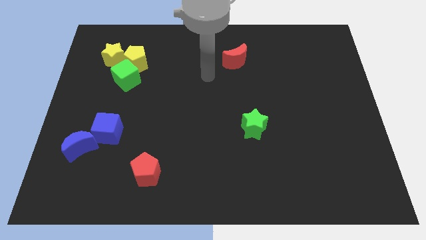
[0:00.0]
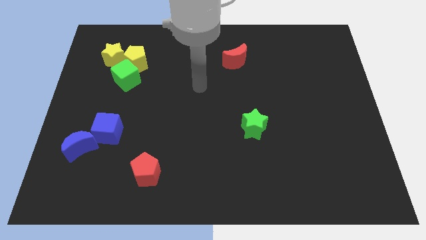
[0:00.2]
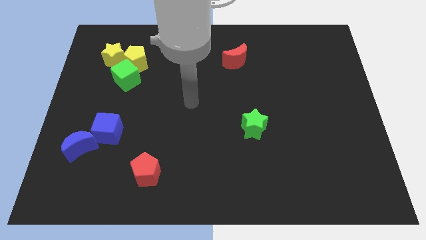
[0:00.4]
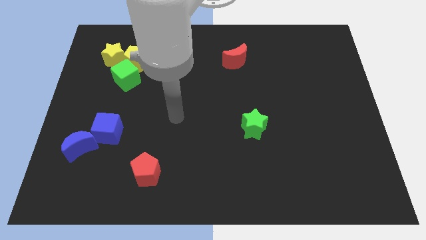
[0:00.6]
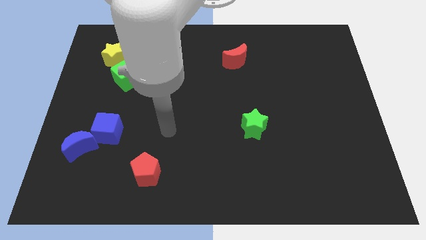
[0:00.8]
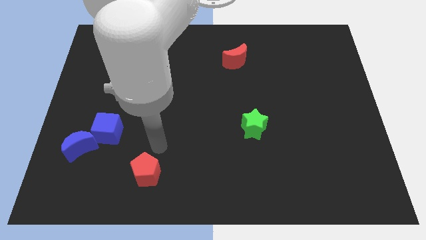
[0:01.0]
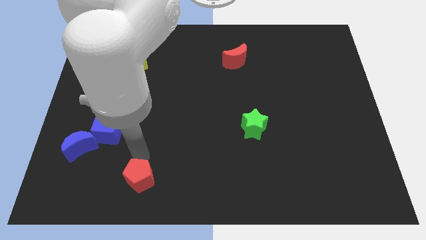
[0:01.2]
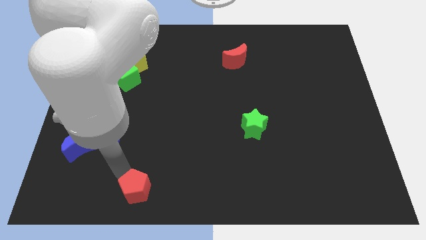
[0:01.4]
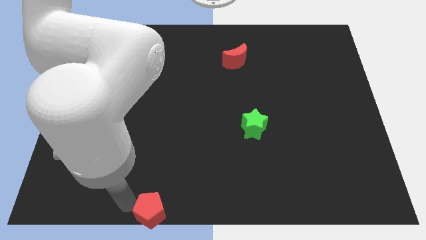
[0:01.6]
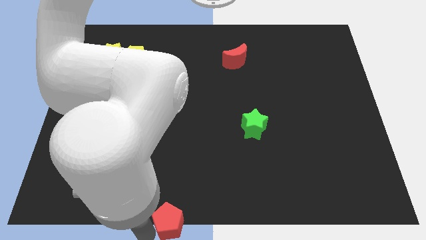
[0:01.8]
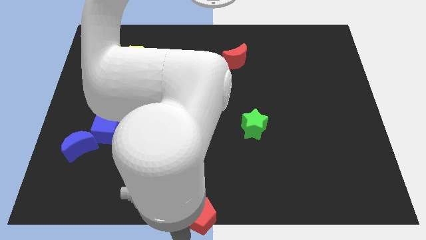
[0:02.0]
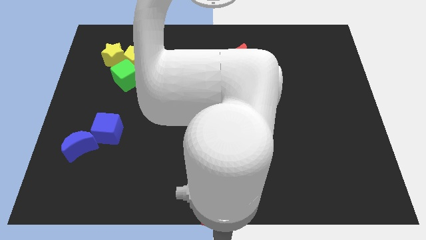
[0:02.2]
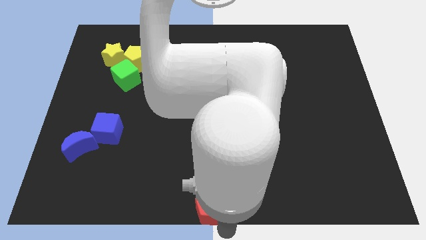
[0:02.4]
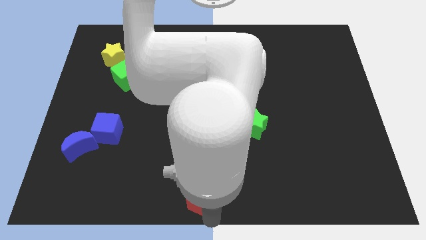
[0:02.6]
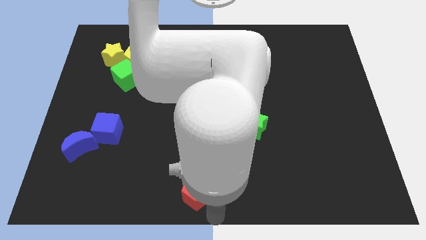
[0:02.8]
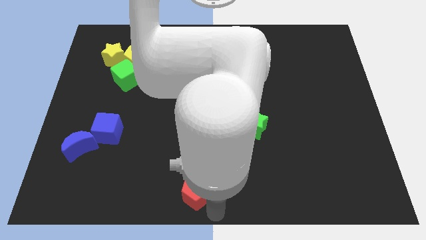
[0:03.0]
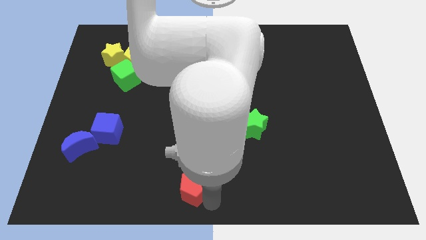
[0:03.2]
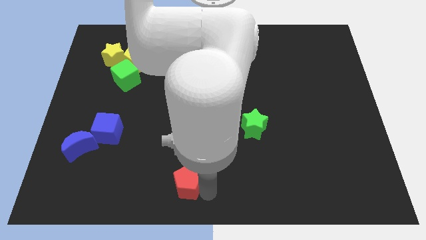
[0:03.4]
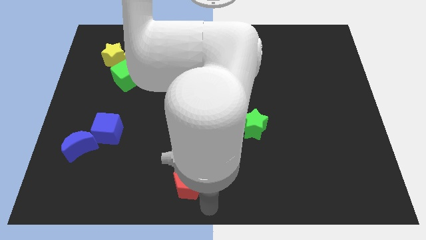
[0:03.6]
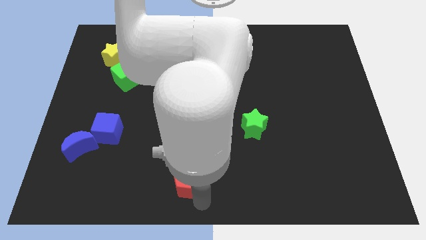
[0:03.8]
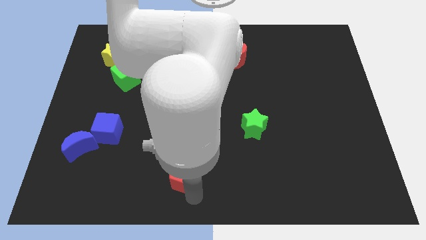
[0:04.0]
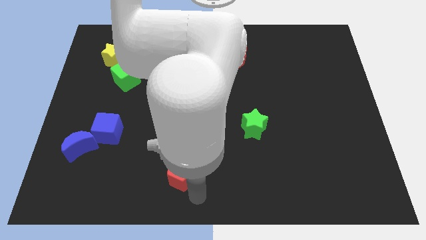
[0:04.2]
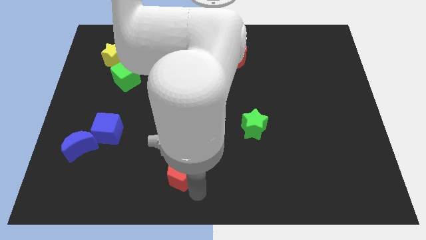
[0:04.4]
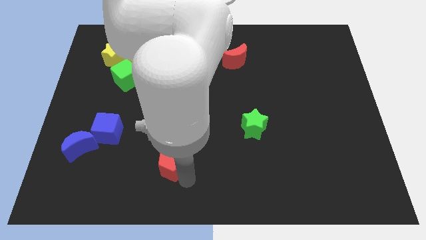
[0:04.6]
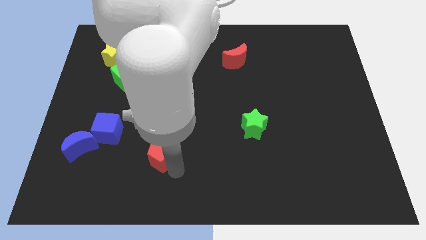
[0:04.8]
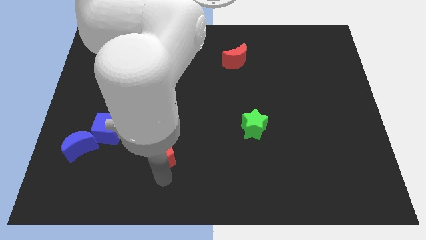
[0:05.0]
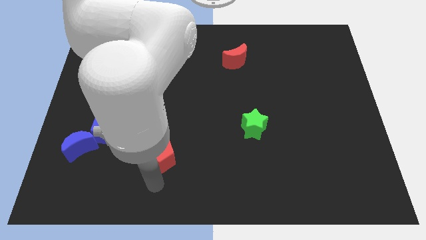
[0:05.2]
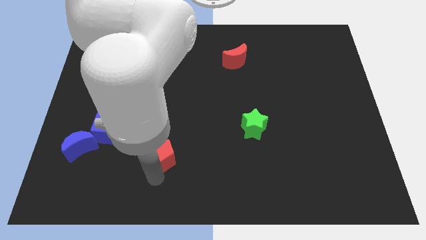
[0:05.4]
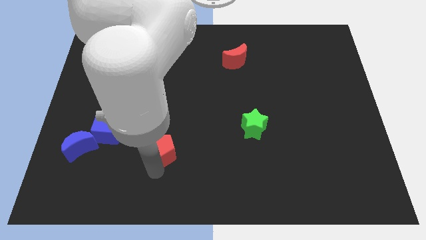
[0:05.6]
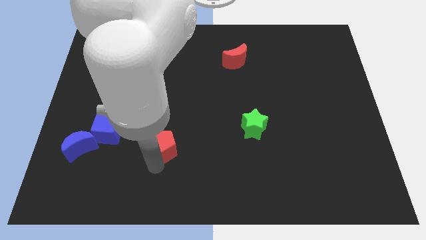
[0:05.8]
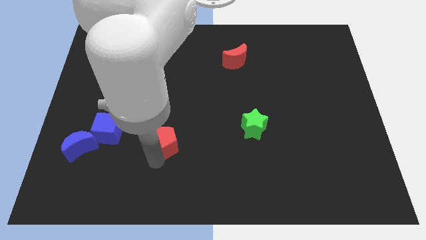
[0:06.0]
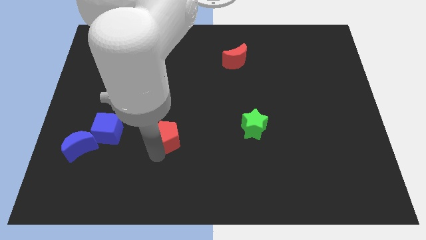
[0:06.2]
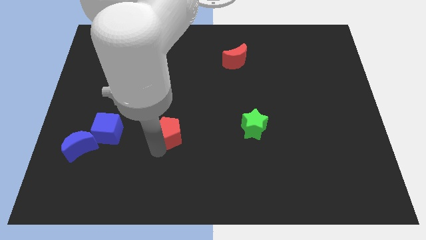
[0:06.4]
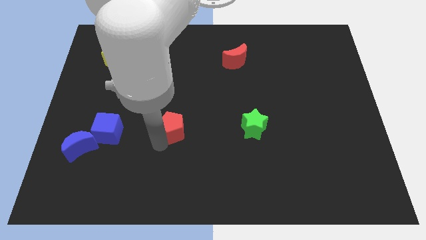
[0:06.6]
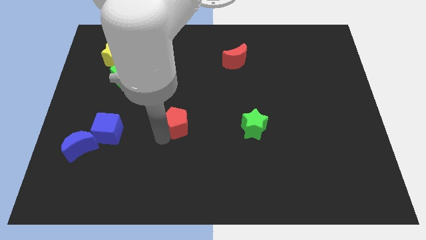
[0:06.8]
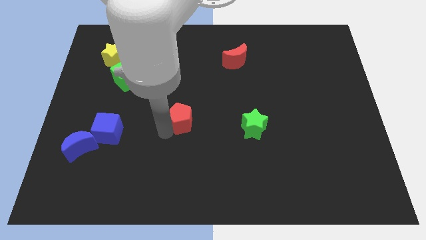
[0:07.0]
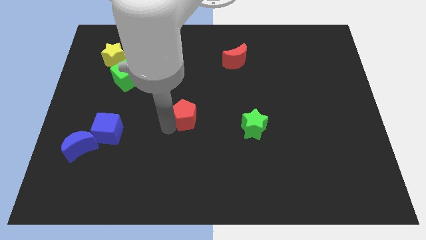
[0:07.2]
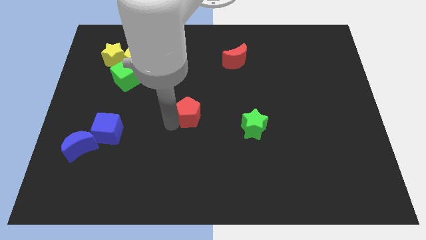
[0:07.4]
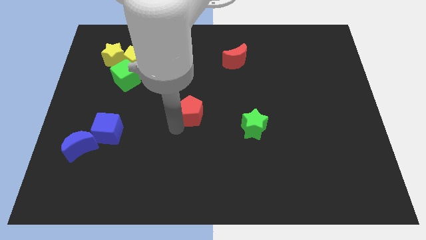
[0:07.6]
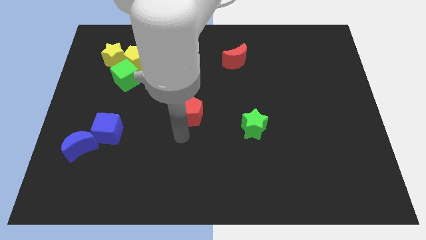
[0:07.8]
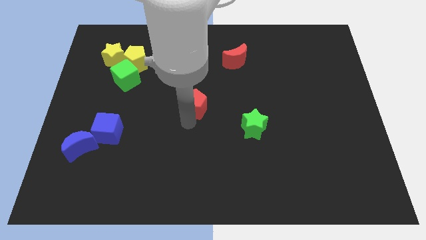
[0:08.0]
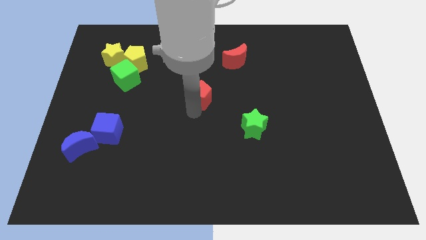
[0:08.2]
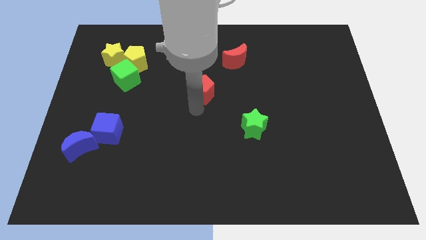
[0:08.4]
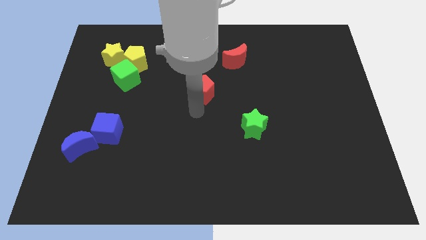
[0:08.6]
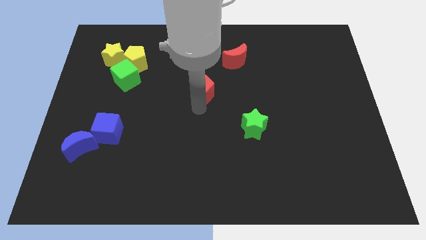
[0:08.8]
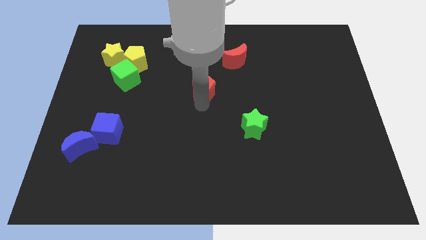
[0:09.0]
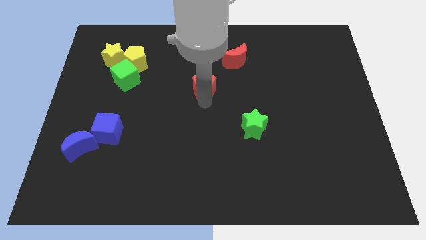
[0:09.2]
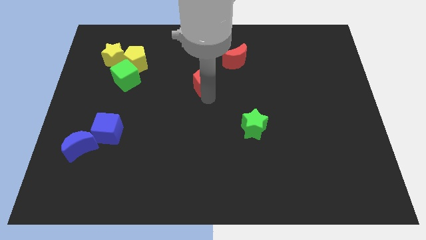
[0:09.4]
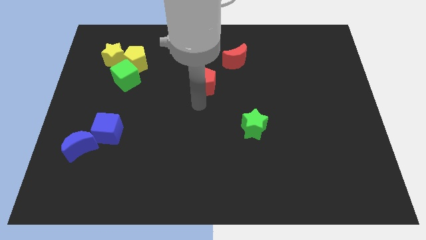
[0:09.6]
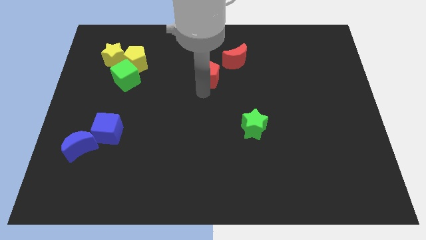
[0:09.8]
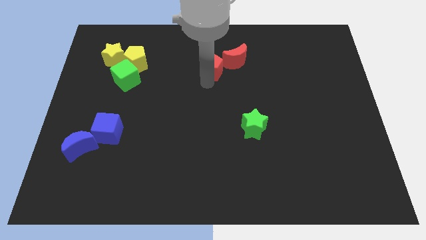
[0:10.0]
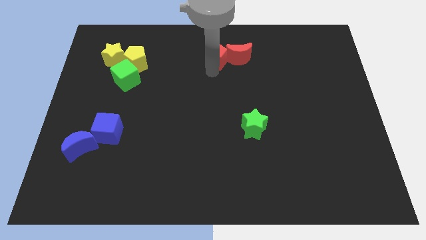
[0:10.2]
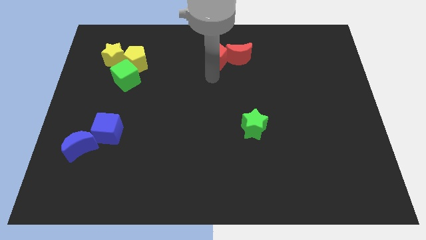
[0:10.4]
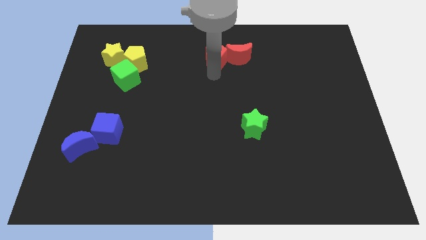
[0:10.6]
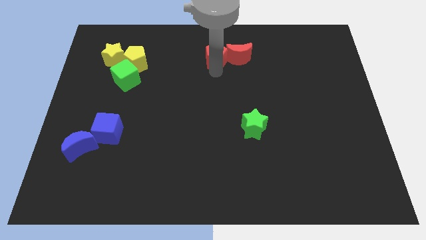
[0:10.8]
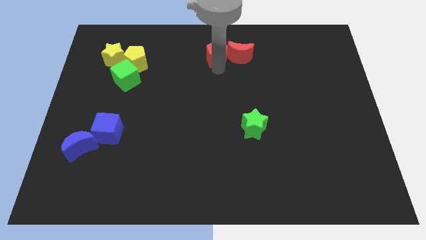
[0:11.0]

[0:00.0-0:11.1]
push the red pentagon to the towards your base

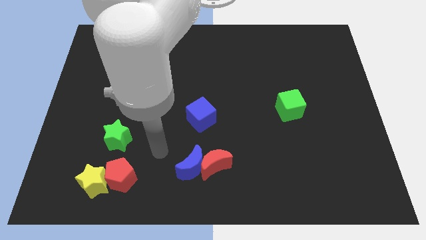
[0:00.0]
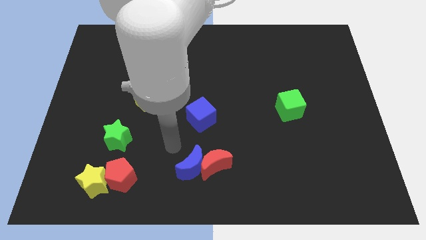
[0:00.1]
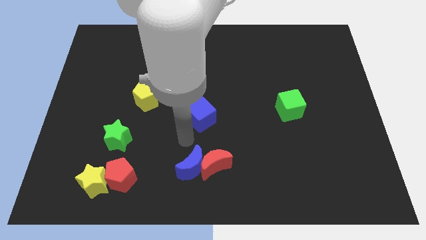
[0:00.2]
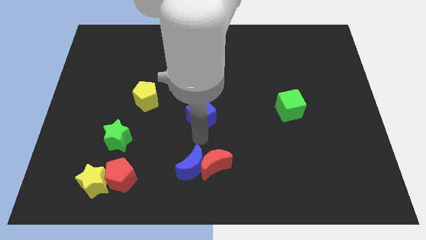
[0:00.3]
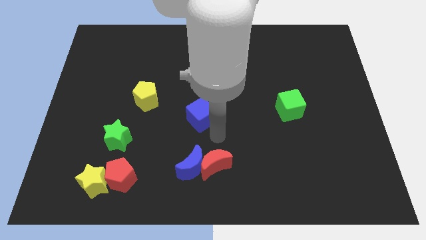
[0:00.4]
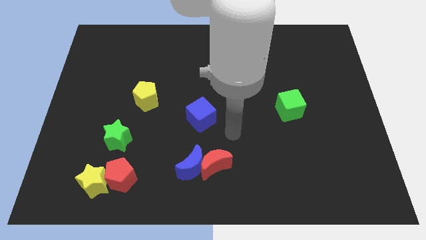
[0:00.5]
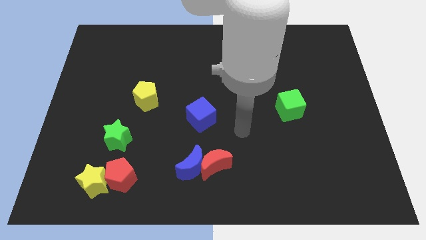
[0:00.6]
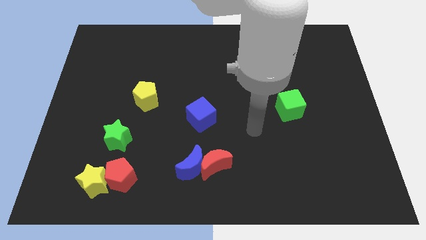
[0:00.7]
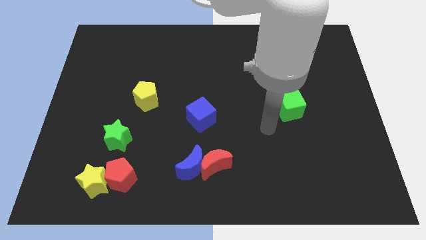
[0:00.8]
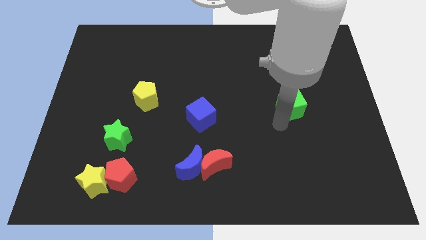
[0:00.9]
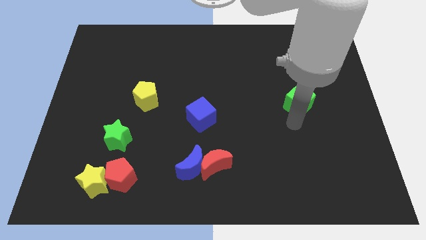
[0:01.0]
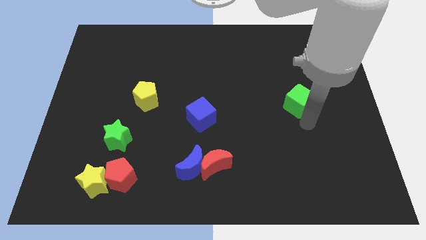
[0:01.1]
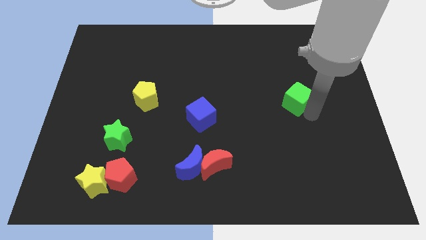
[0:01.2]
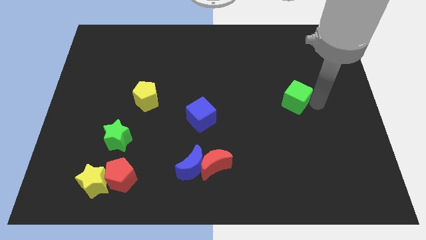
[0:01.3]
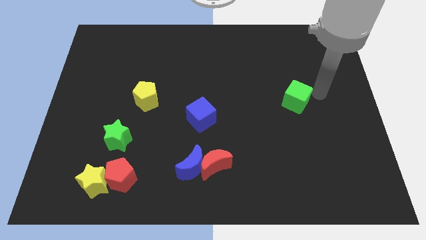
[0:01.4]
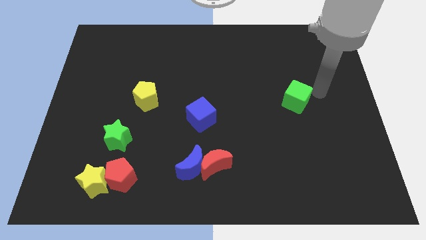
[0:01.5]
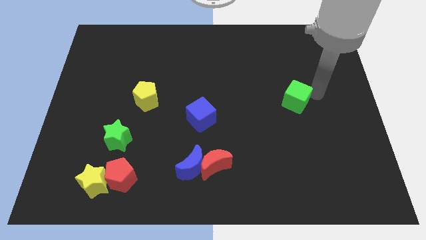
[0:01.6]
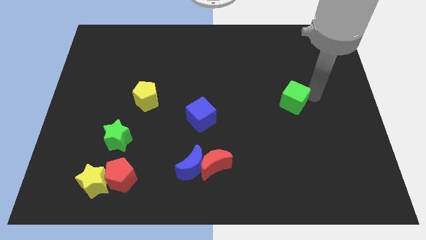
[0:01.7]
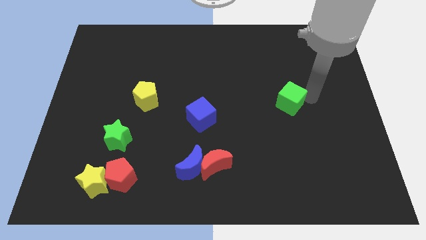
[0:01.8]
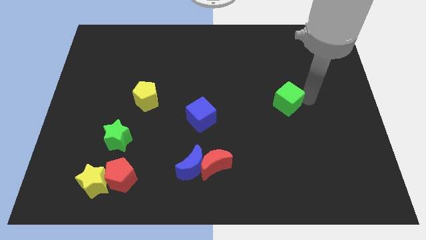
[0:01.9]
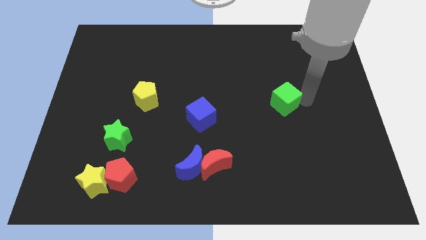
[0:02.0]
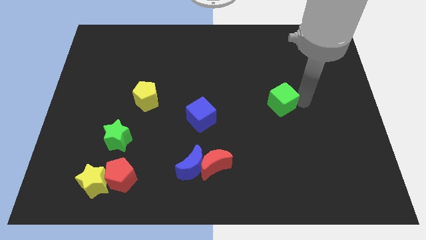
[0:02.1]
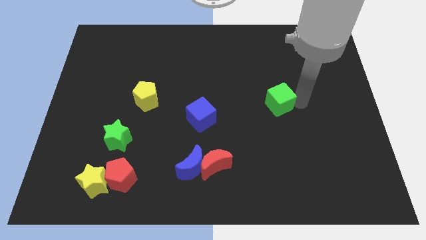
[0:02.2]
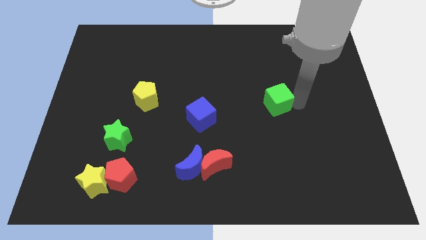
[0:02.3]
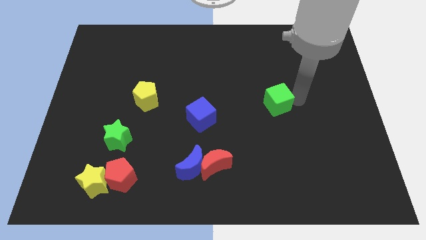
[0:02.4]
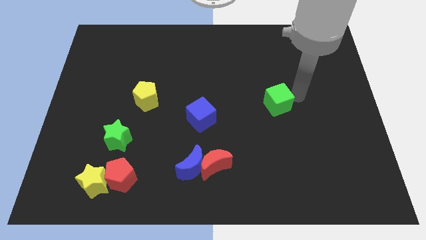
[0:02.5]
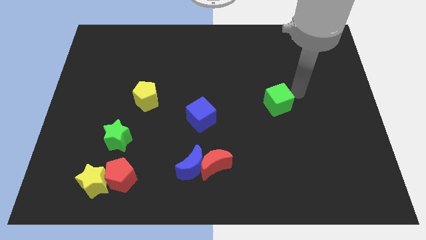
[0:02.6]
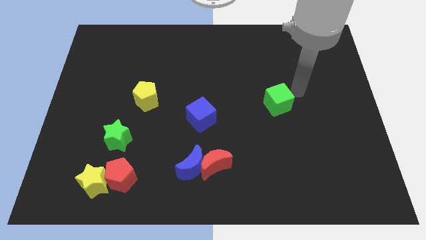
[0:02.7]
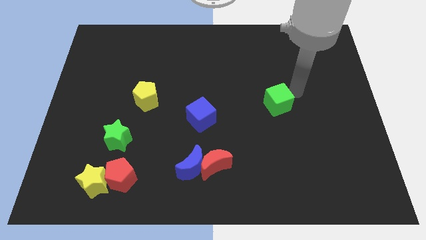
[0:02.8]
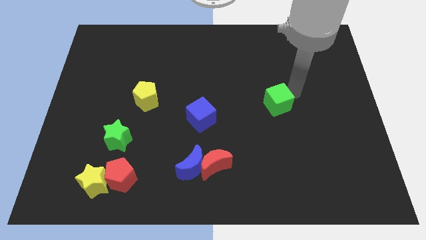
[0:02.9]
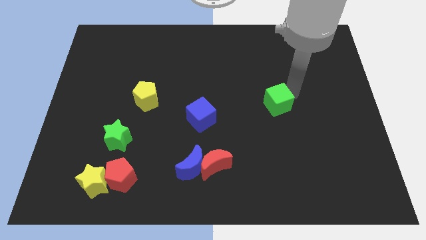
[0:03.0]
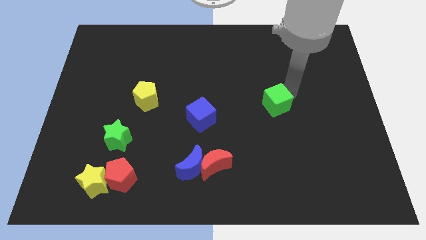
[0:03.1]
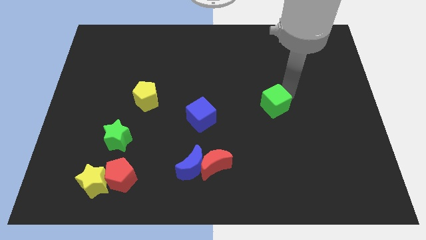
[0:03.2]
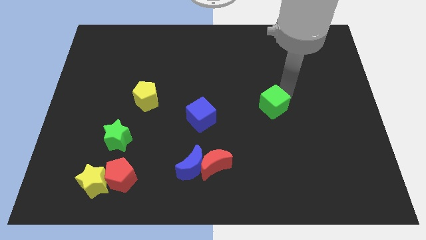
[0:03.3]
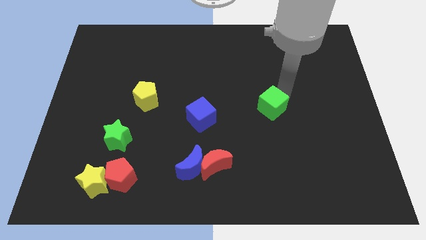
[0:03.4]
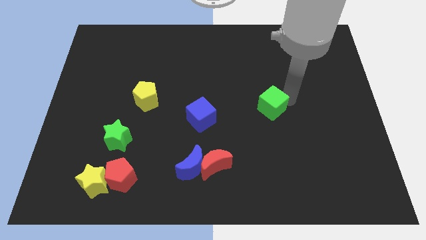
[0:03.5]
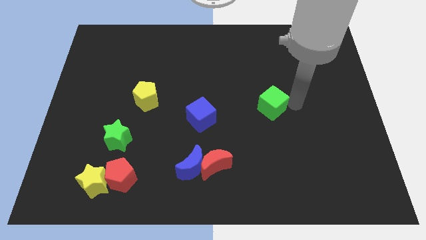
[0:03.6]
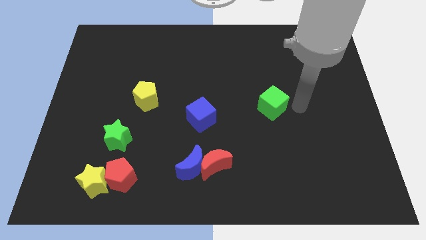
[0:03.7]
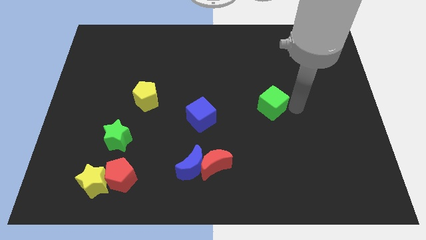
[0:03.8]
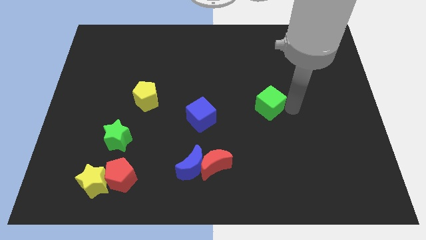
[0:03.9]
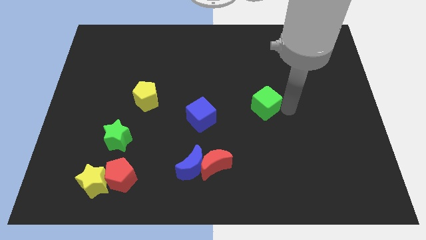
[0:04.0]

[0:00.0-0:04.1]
put the green cube to the center
